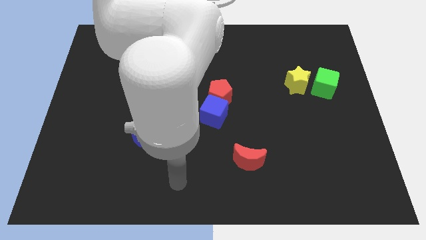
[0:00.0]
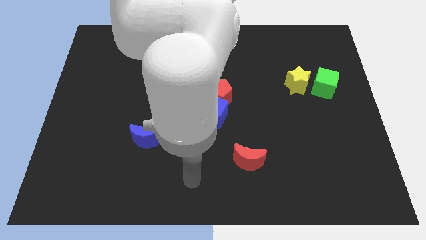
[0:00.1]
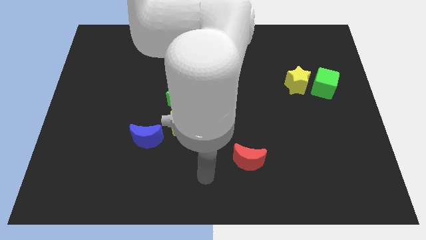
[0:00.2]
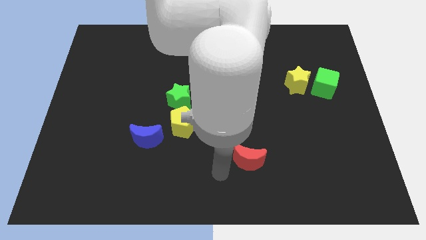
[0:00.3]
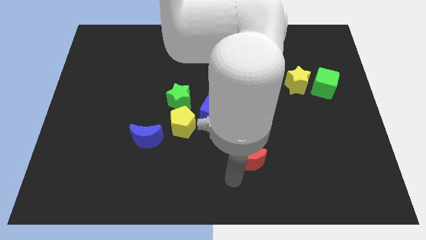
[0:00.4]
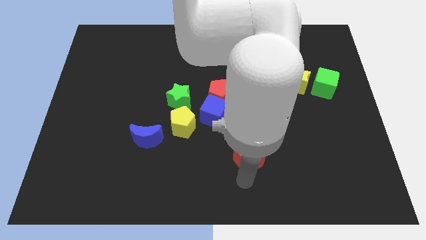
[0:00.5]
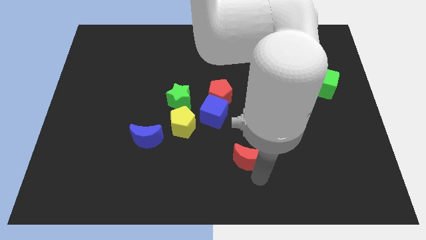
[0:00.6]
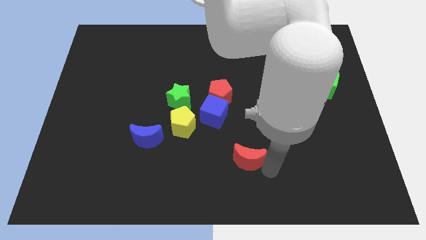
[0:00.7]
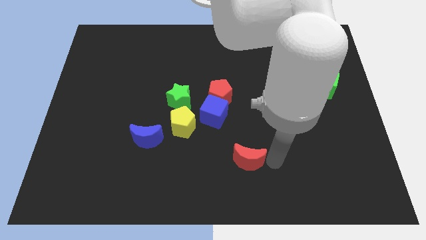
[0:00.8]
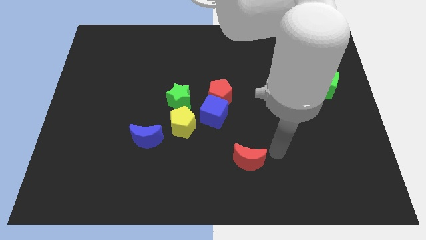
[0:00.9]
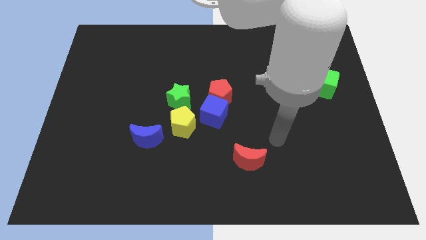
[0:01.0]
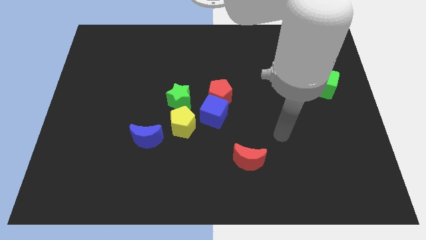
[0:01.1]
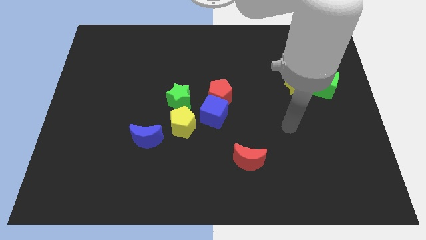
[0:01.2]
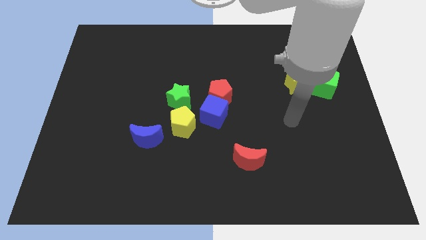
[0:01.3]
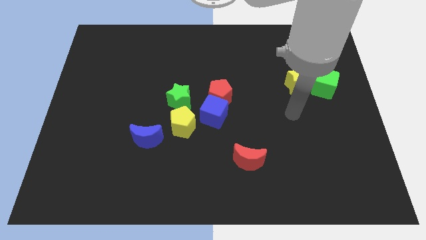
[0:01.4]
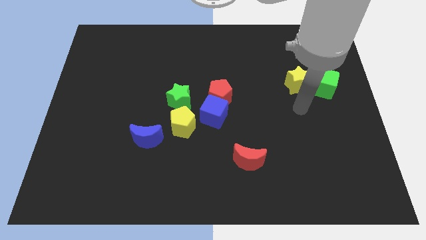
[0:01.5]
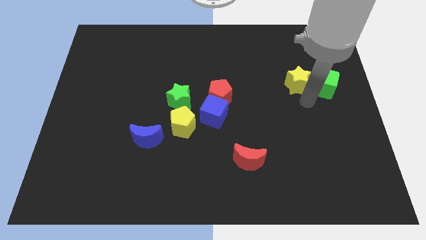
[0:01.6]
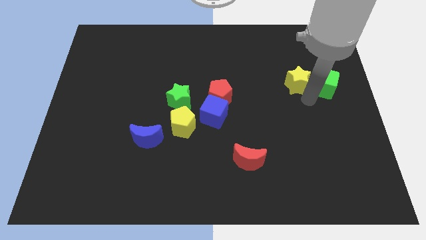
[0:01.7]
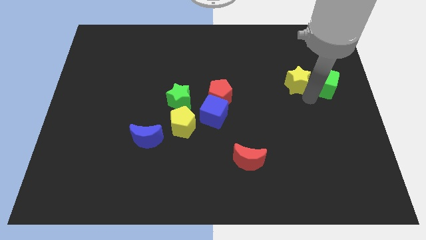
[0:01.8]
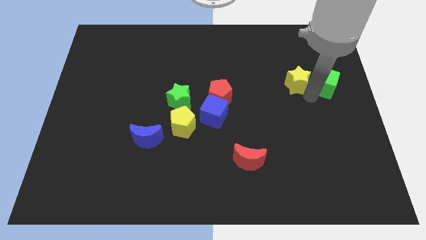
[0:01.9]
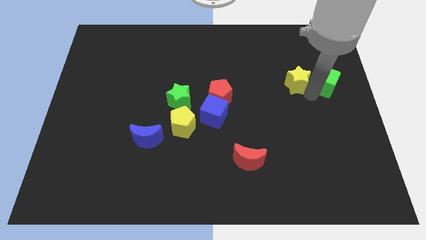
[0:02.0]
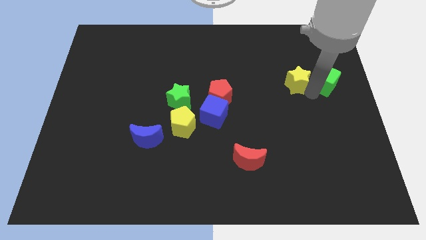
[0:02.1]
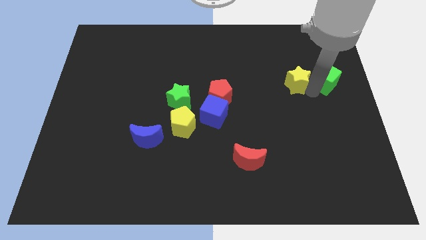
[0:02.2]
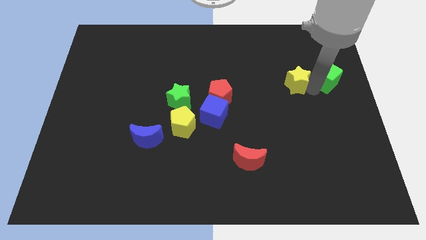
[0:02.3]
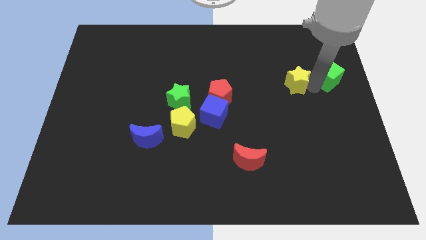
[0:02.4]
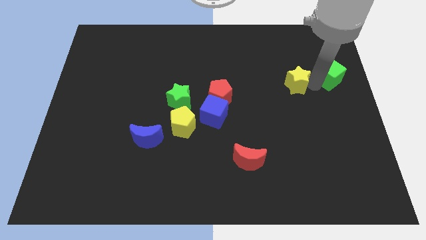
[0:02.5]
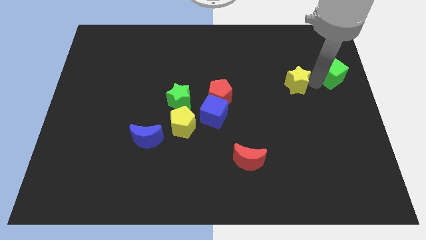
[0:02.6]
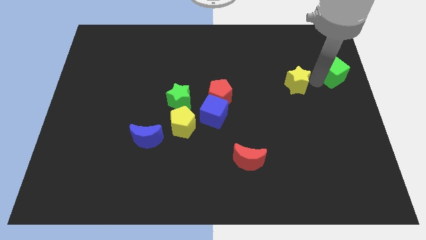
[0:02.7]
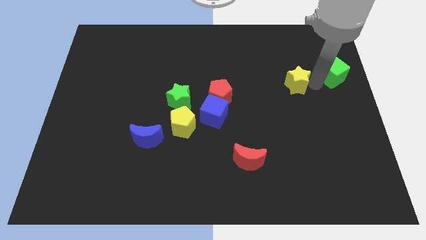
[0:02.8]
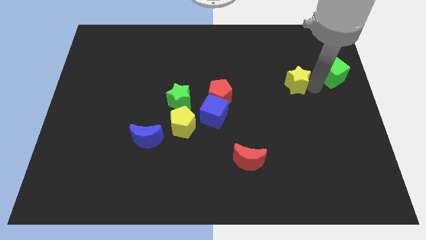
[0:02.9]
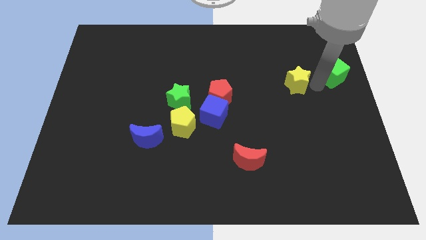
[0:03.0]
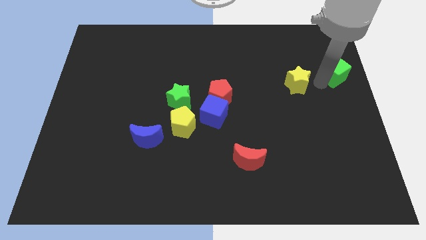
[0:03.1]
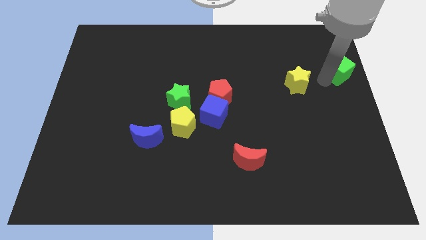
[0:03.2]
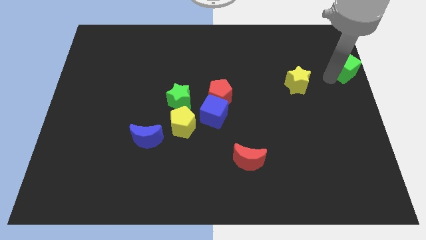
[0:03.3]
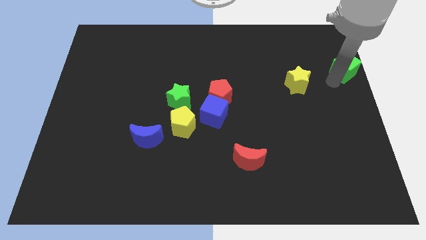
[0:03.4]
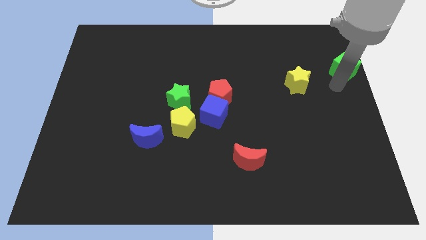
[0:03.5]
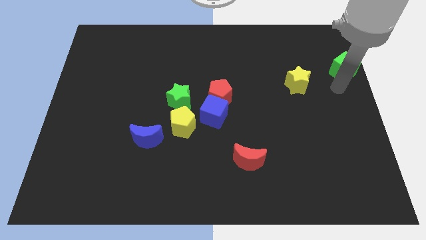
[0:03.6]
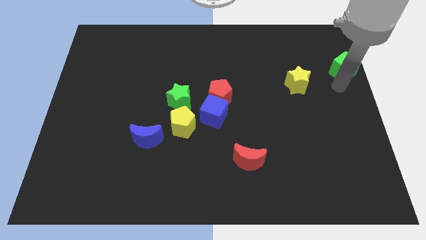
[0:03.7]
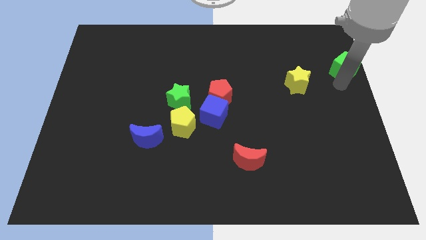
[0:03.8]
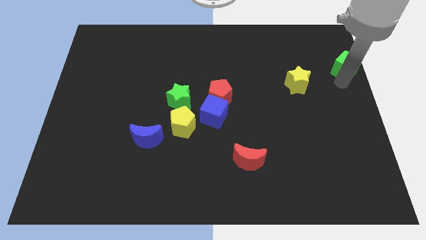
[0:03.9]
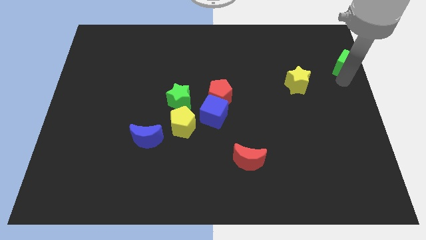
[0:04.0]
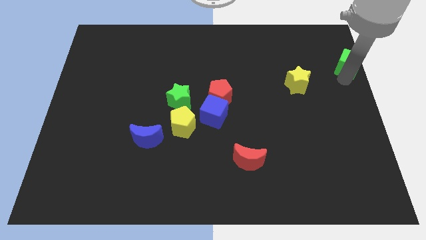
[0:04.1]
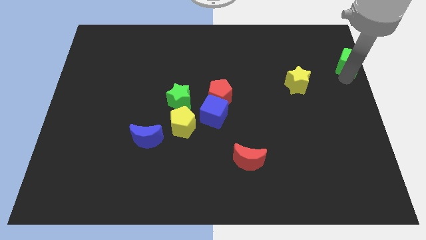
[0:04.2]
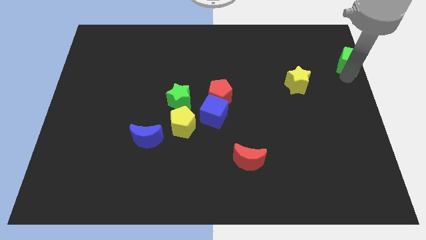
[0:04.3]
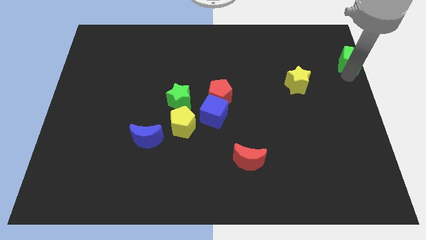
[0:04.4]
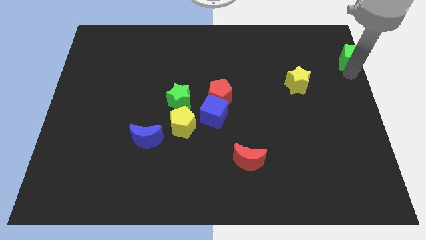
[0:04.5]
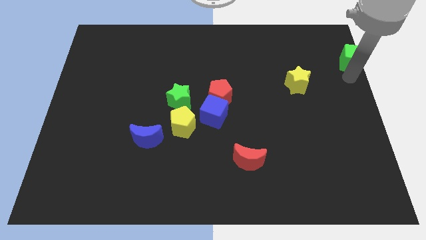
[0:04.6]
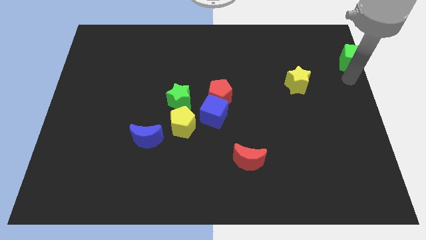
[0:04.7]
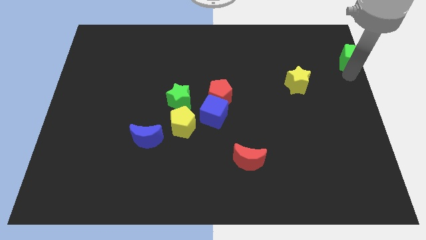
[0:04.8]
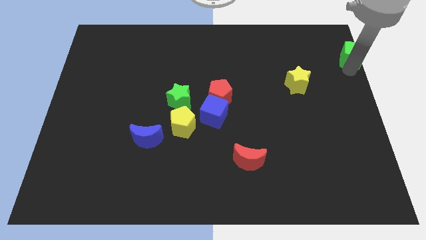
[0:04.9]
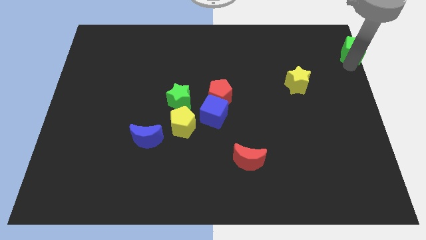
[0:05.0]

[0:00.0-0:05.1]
put the green cube to the top right

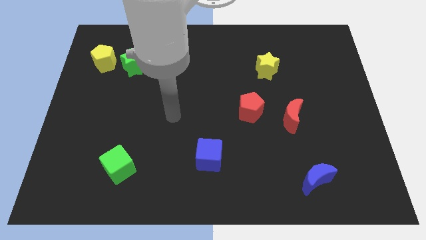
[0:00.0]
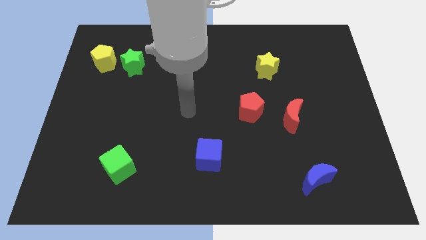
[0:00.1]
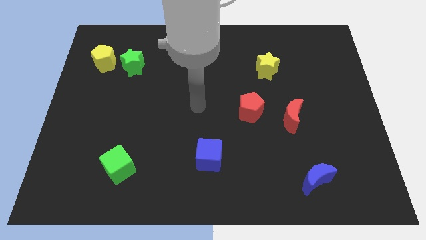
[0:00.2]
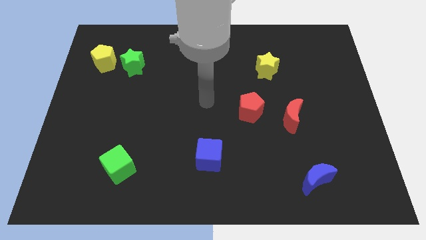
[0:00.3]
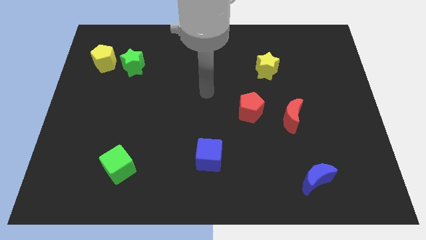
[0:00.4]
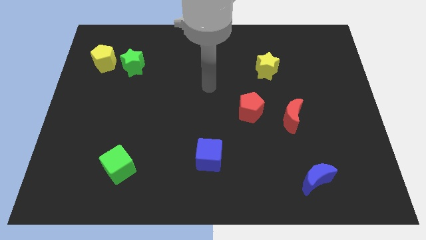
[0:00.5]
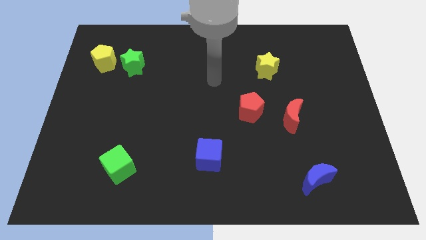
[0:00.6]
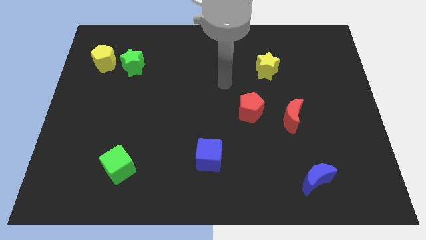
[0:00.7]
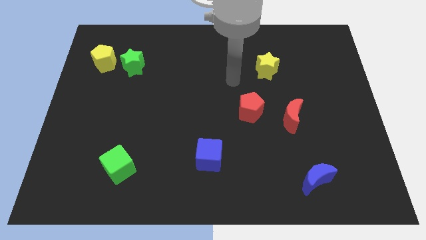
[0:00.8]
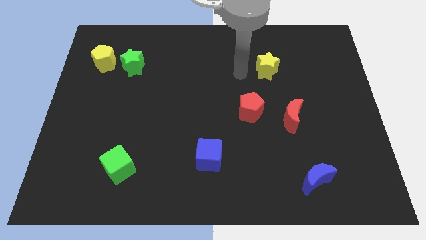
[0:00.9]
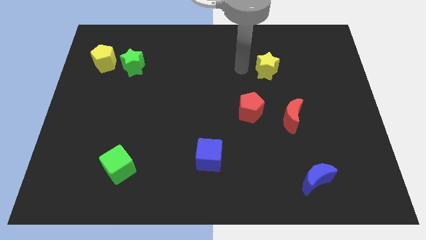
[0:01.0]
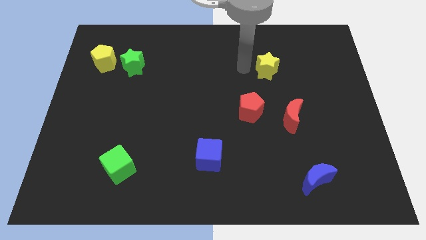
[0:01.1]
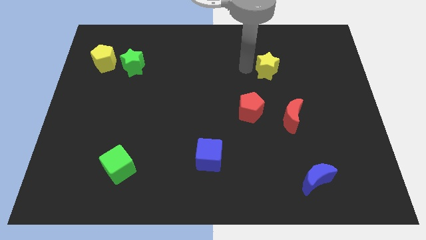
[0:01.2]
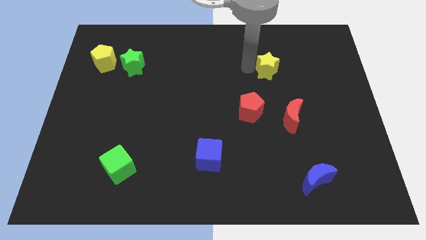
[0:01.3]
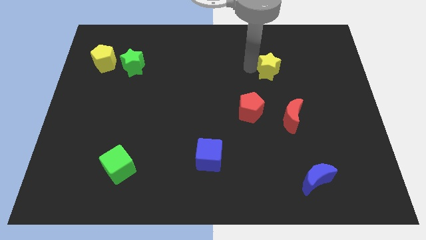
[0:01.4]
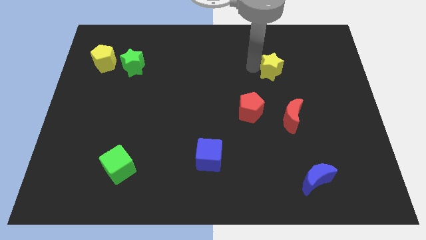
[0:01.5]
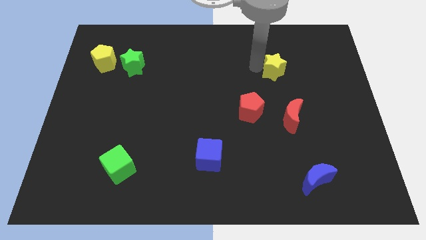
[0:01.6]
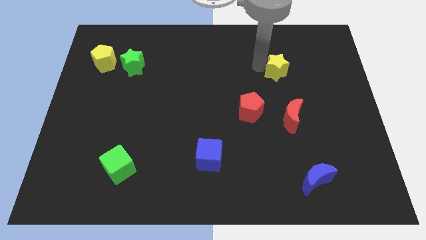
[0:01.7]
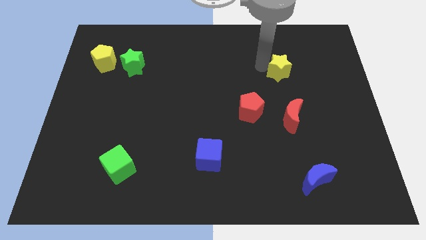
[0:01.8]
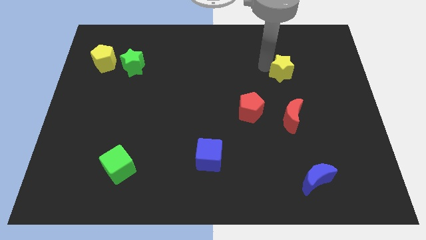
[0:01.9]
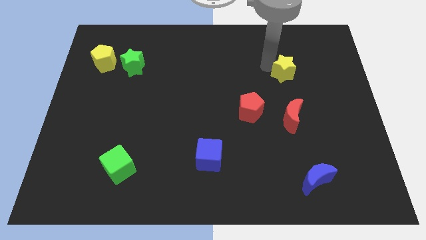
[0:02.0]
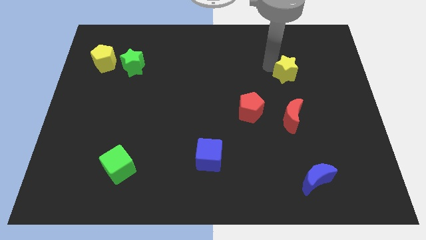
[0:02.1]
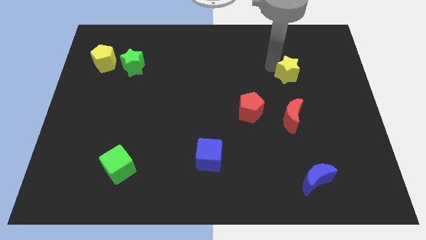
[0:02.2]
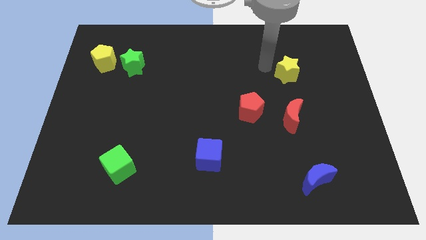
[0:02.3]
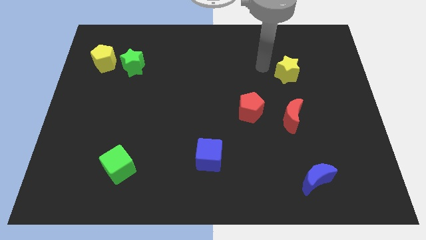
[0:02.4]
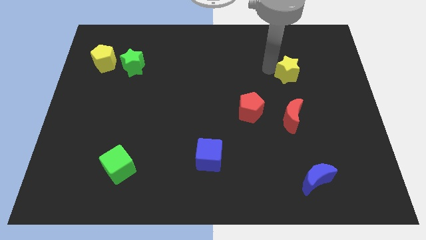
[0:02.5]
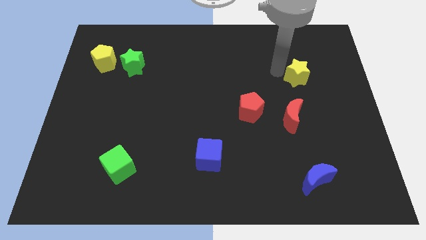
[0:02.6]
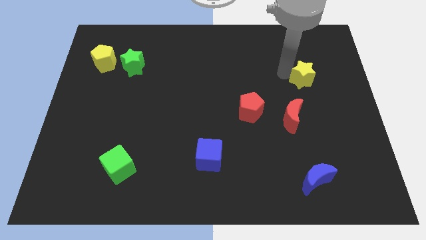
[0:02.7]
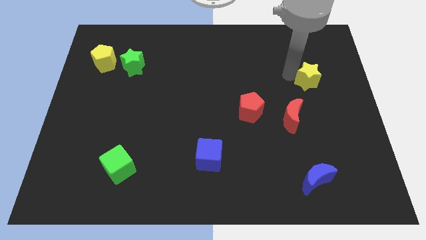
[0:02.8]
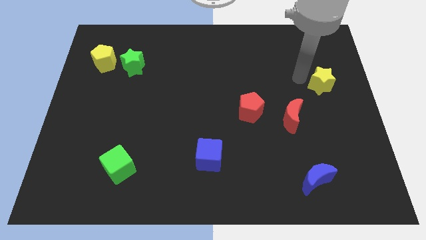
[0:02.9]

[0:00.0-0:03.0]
push the yellow star to the right side of the board
